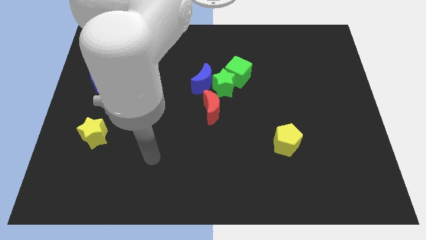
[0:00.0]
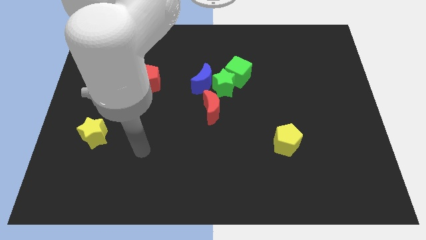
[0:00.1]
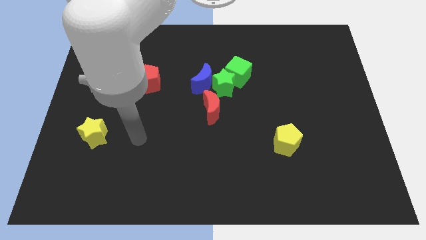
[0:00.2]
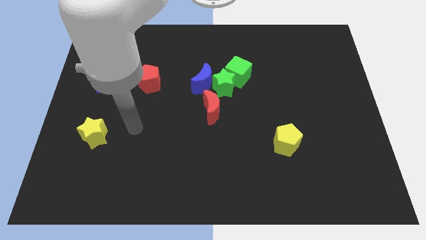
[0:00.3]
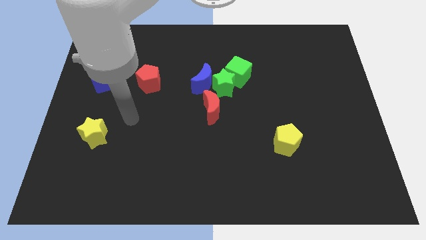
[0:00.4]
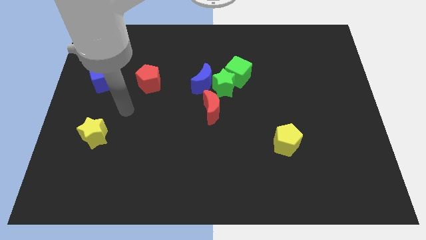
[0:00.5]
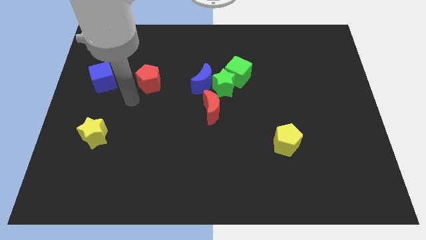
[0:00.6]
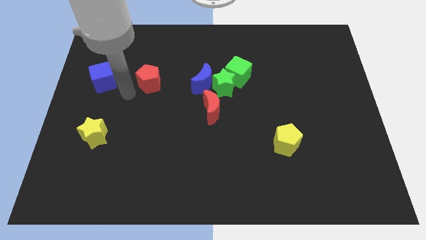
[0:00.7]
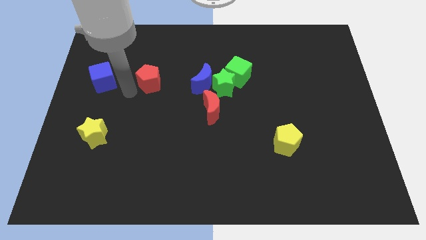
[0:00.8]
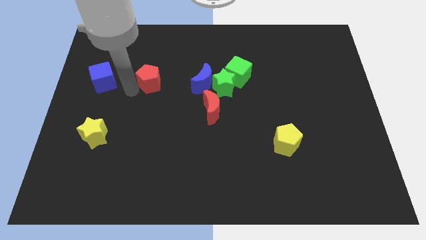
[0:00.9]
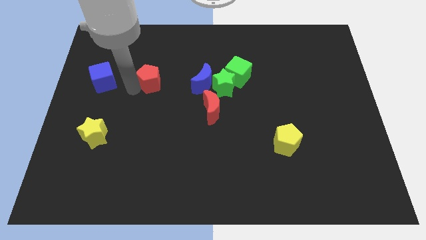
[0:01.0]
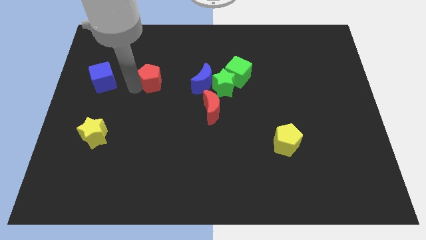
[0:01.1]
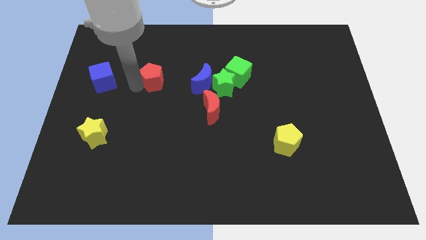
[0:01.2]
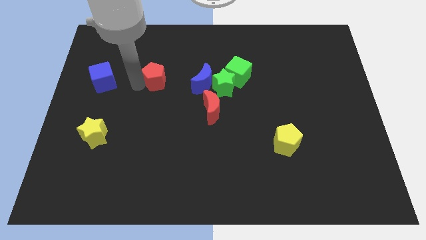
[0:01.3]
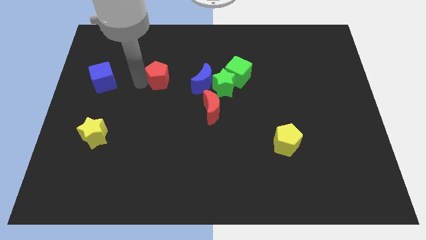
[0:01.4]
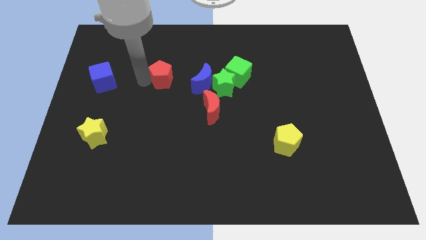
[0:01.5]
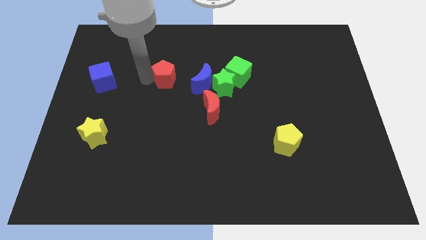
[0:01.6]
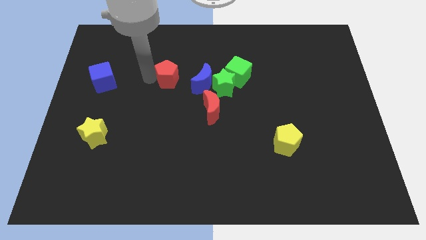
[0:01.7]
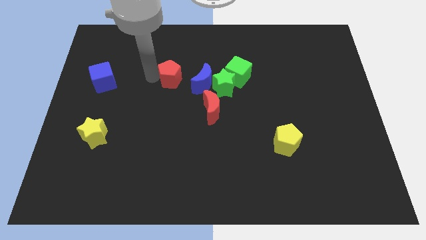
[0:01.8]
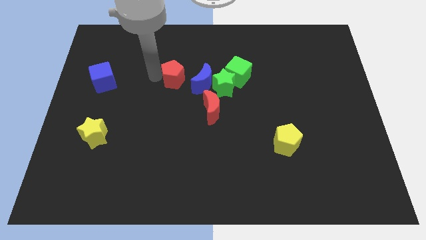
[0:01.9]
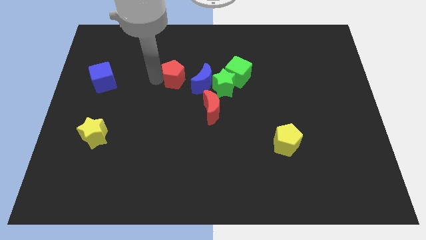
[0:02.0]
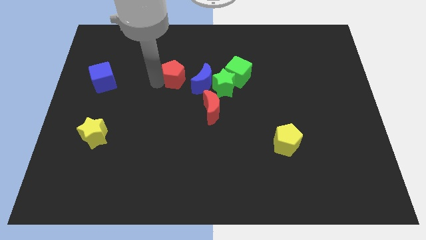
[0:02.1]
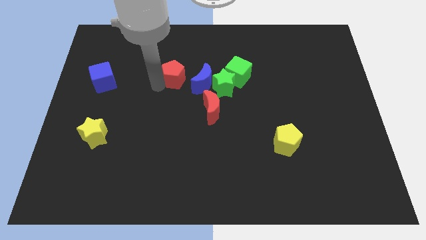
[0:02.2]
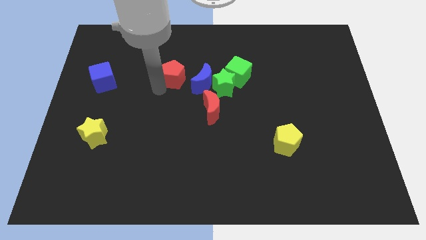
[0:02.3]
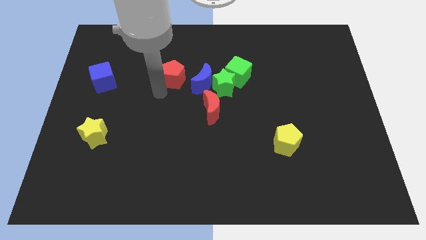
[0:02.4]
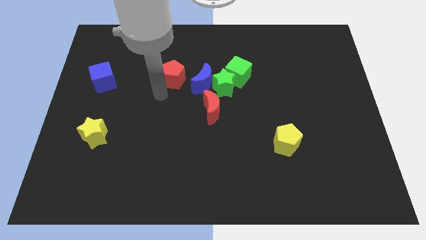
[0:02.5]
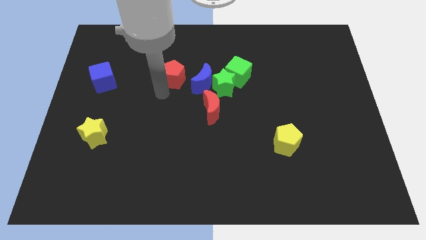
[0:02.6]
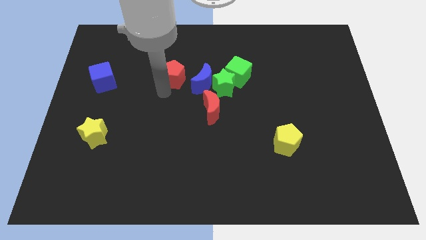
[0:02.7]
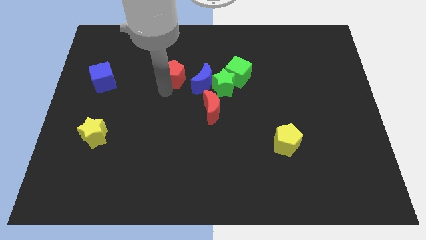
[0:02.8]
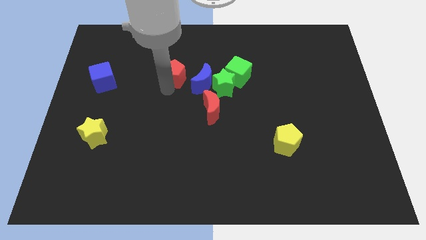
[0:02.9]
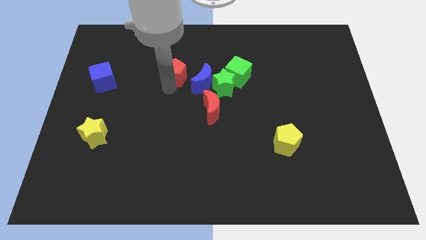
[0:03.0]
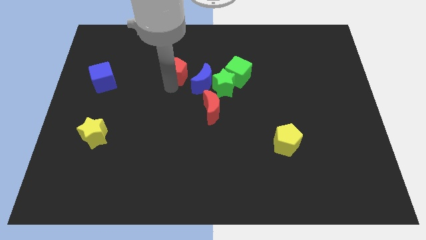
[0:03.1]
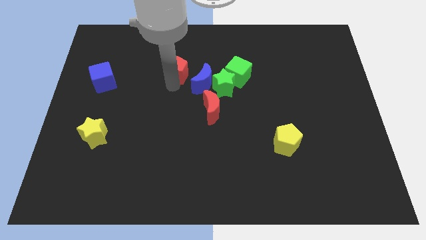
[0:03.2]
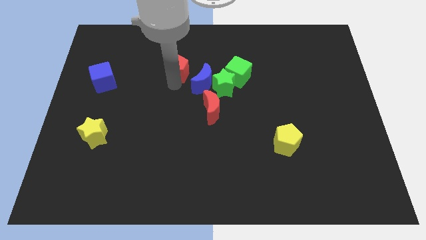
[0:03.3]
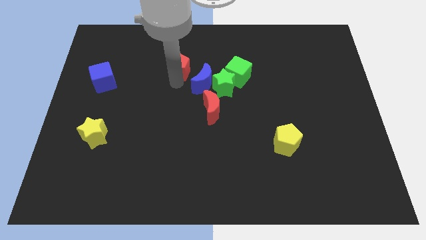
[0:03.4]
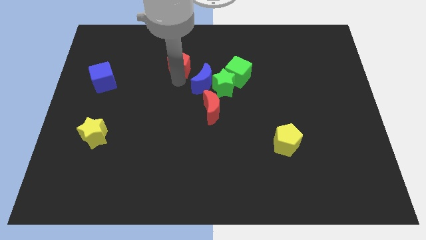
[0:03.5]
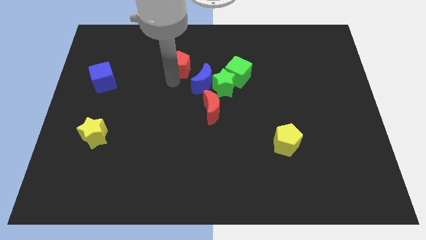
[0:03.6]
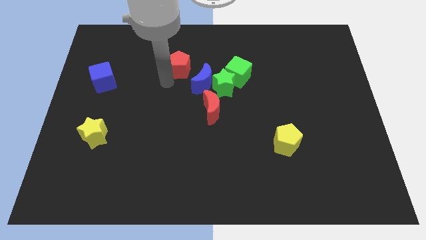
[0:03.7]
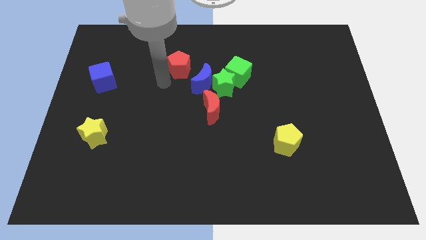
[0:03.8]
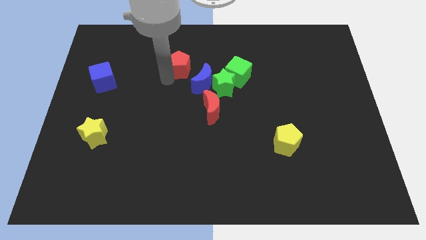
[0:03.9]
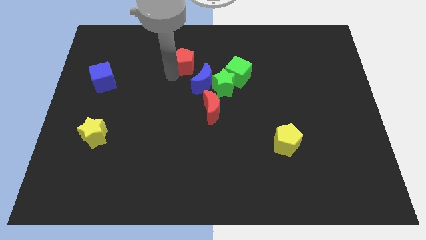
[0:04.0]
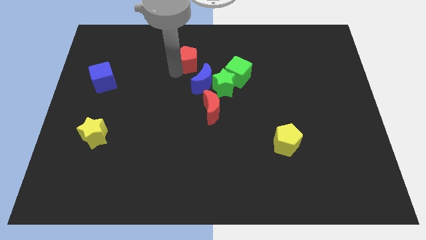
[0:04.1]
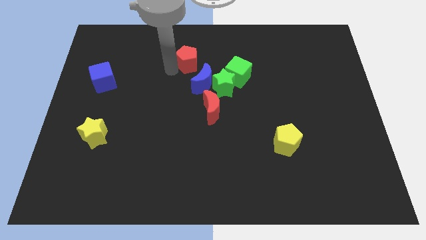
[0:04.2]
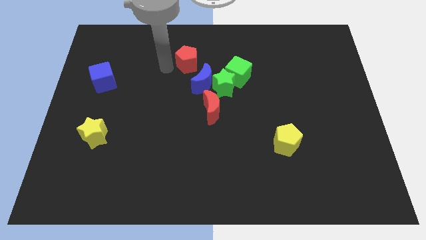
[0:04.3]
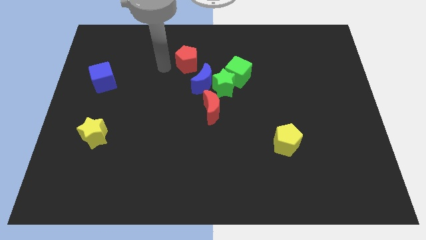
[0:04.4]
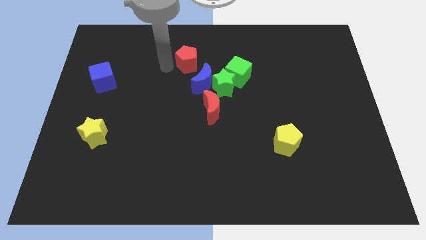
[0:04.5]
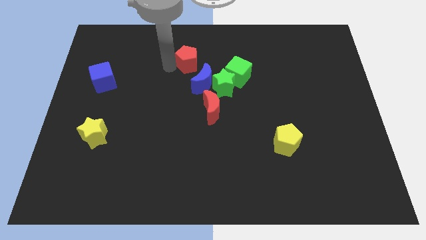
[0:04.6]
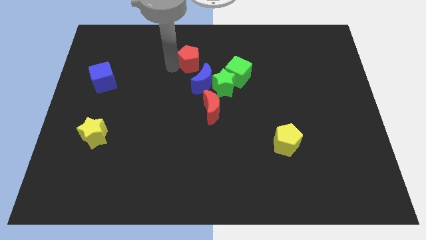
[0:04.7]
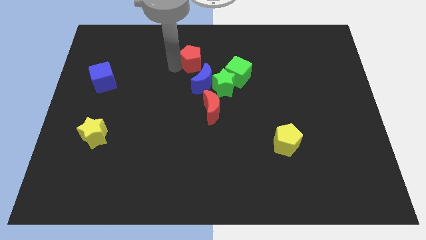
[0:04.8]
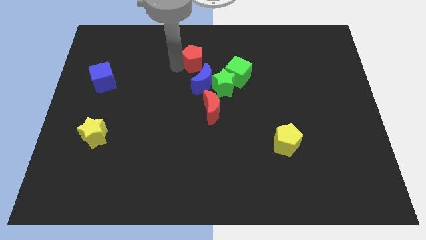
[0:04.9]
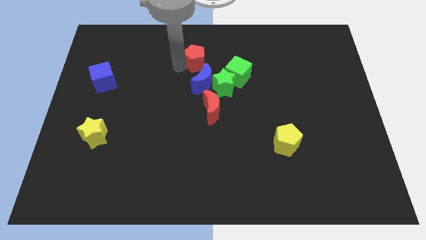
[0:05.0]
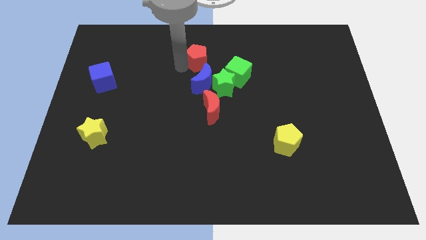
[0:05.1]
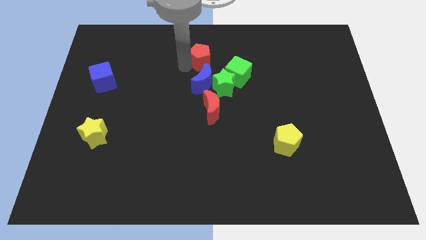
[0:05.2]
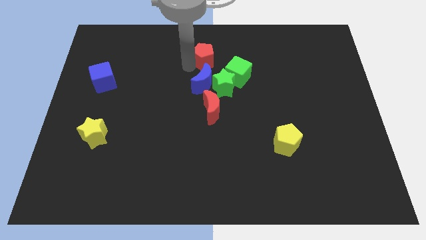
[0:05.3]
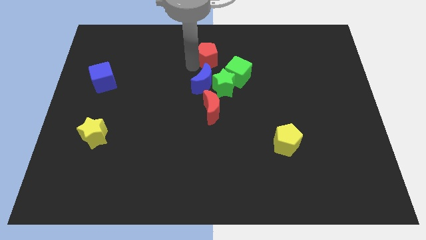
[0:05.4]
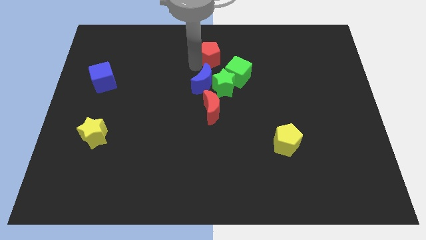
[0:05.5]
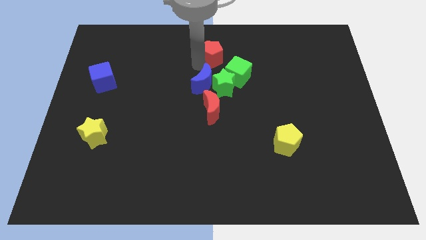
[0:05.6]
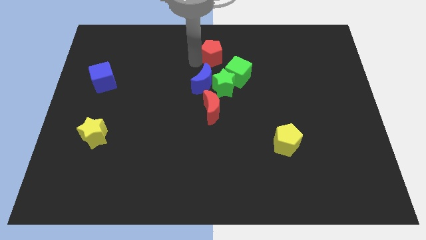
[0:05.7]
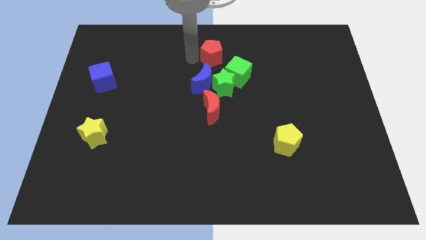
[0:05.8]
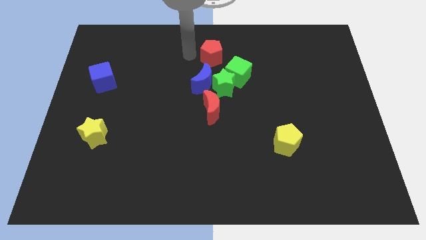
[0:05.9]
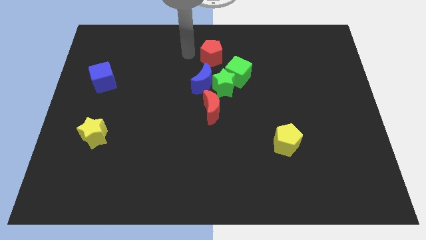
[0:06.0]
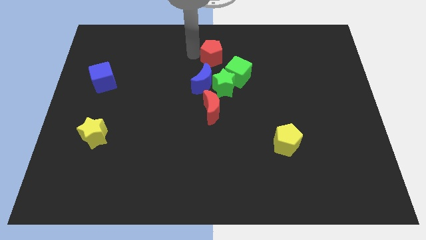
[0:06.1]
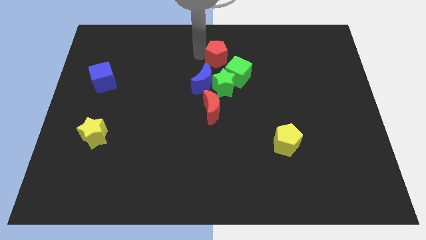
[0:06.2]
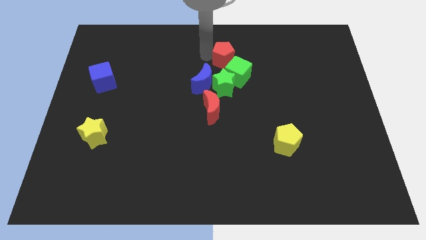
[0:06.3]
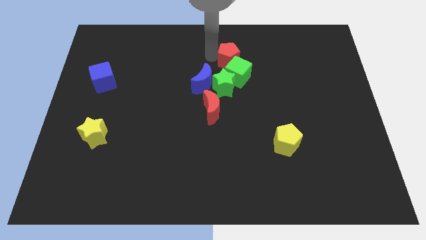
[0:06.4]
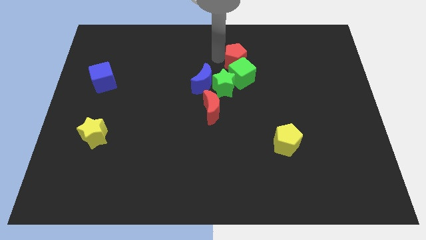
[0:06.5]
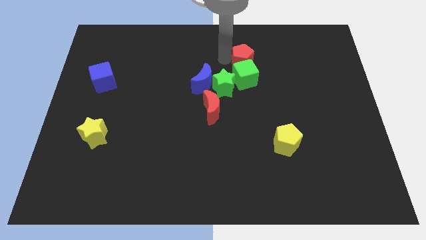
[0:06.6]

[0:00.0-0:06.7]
push the red pentagon to the right

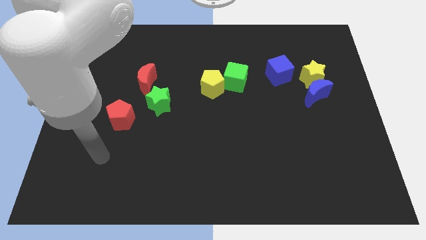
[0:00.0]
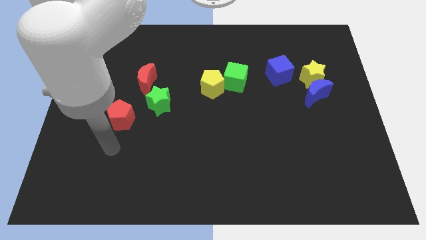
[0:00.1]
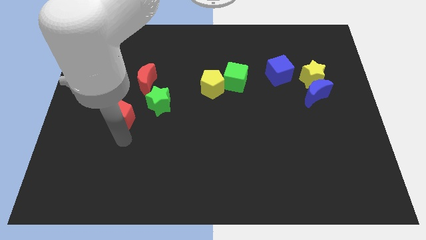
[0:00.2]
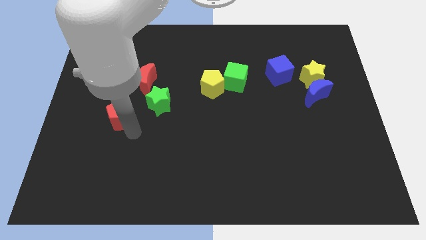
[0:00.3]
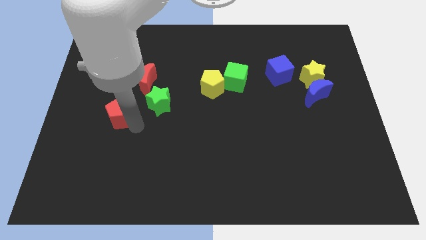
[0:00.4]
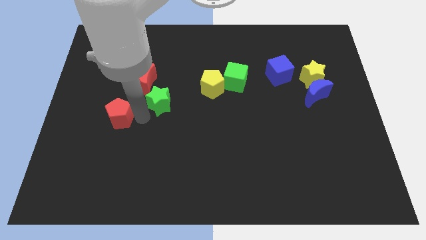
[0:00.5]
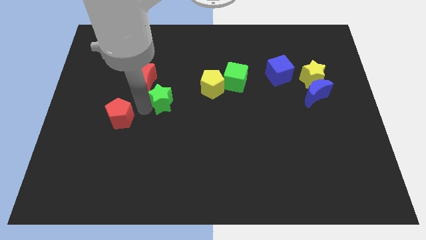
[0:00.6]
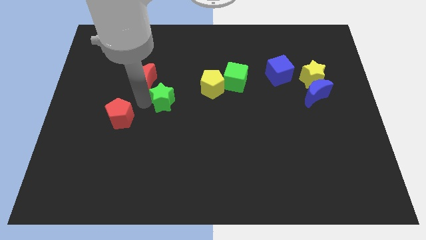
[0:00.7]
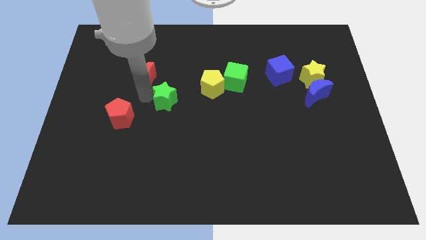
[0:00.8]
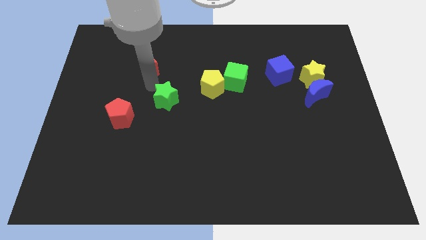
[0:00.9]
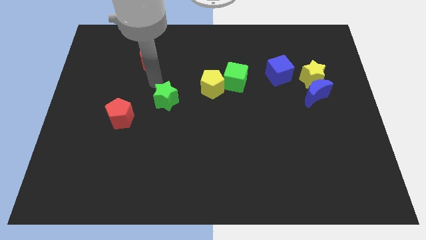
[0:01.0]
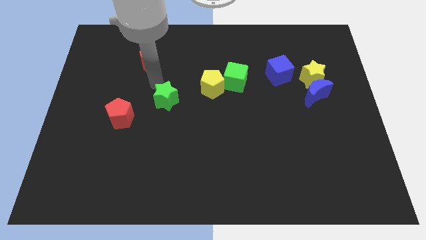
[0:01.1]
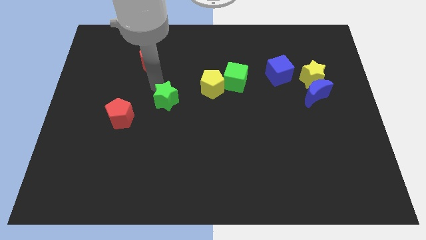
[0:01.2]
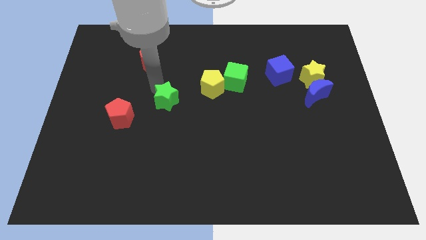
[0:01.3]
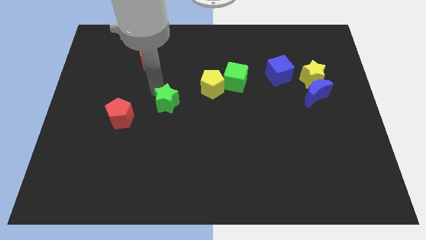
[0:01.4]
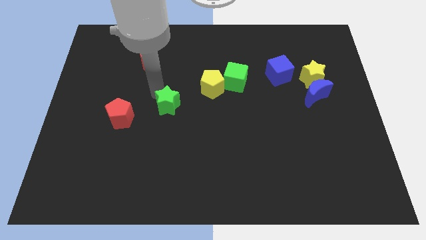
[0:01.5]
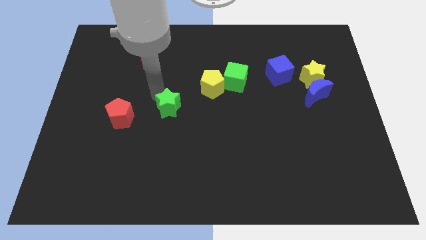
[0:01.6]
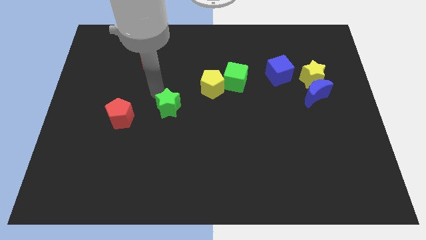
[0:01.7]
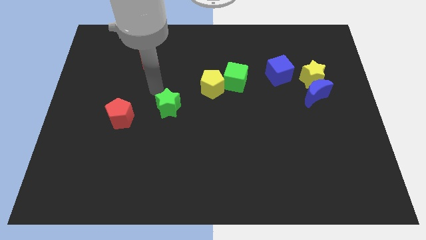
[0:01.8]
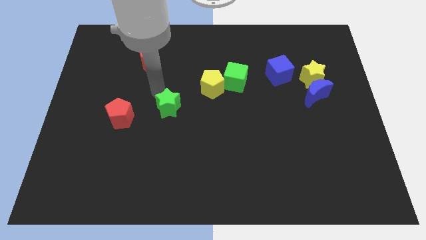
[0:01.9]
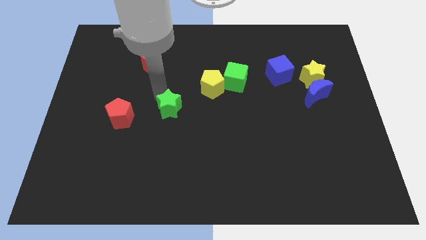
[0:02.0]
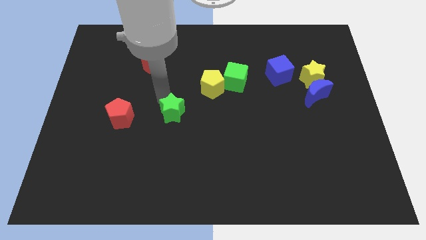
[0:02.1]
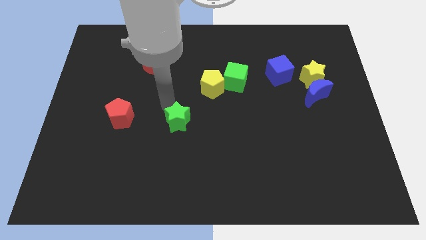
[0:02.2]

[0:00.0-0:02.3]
push the green star diagonally down and to the right a little
